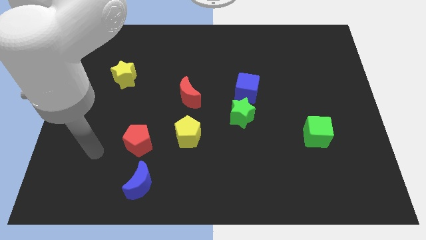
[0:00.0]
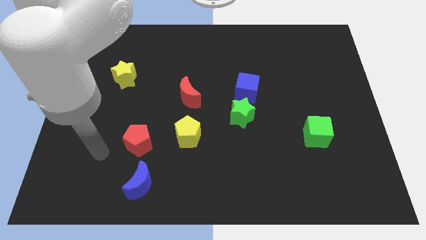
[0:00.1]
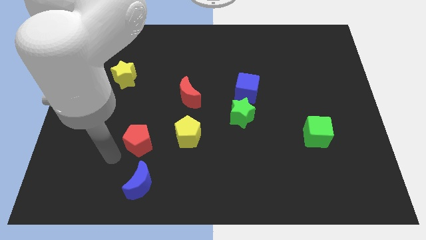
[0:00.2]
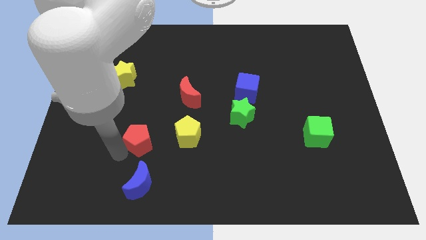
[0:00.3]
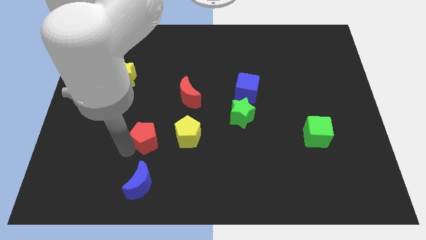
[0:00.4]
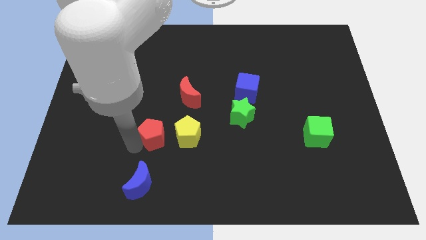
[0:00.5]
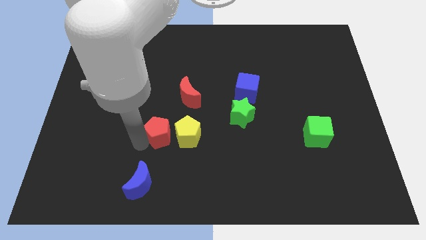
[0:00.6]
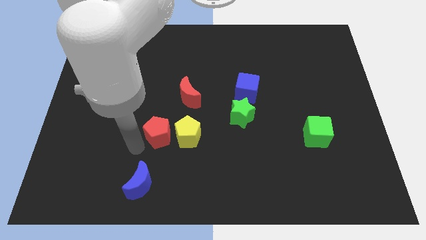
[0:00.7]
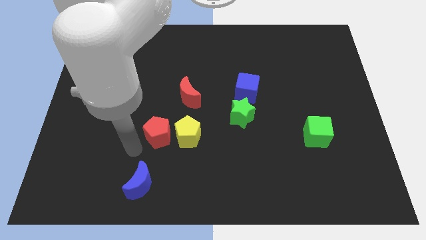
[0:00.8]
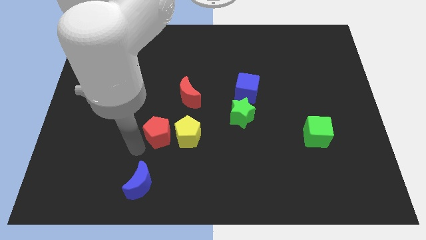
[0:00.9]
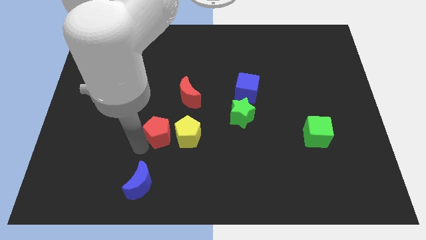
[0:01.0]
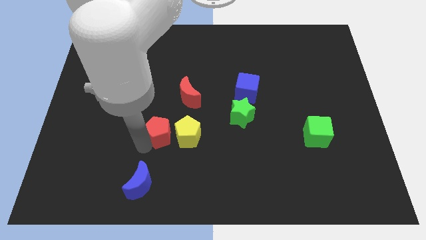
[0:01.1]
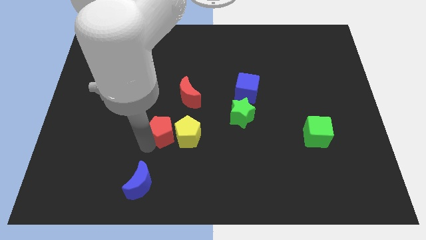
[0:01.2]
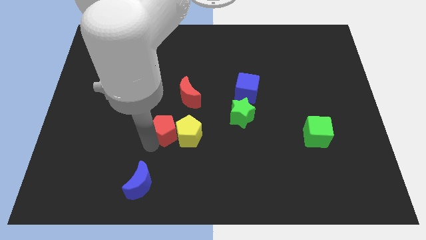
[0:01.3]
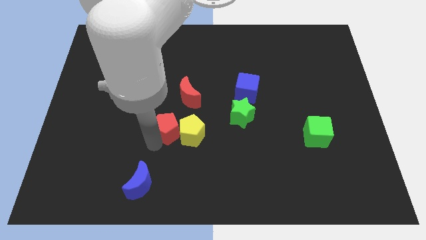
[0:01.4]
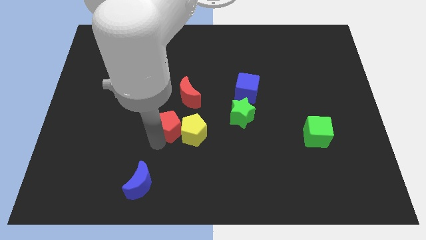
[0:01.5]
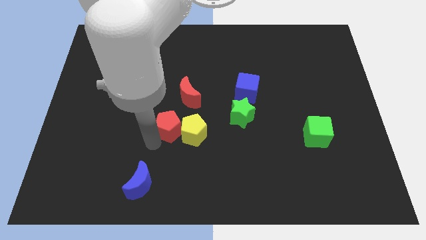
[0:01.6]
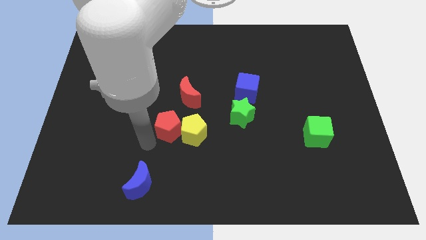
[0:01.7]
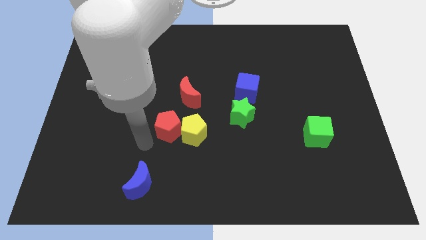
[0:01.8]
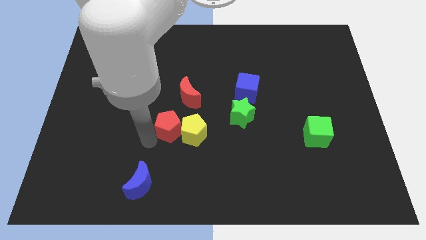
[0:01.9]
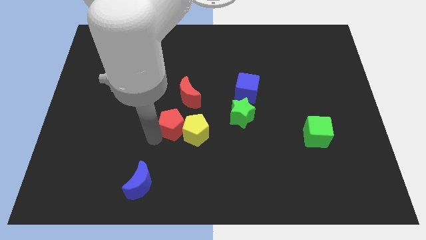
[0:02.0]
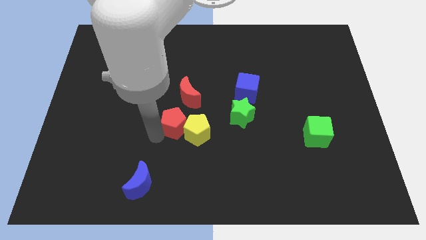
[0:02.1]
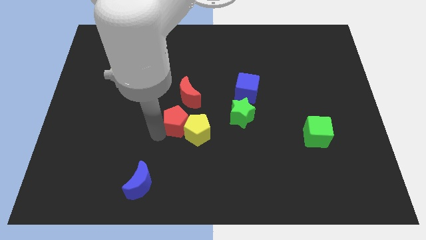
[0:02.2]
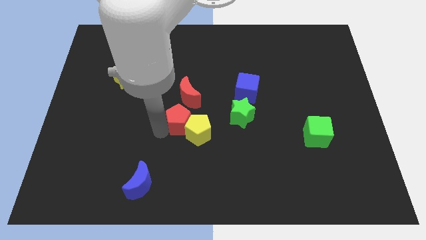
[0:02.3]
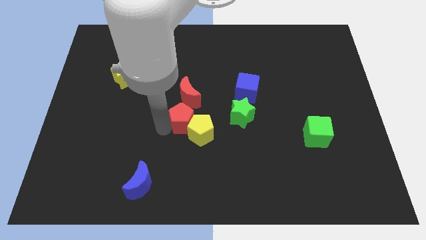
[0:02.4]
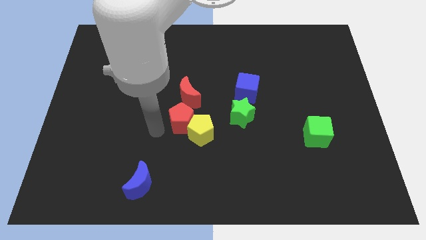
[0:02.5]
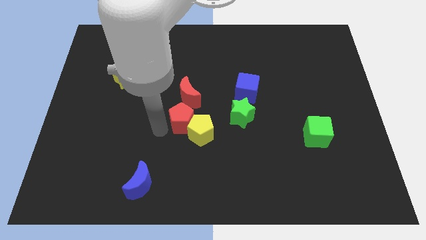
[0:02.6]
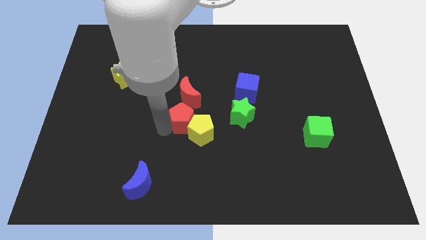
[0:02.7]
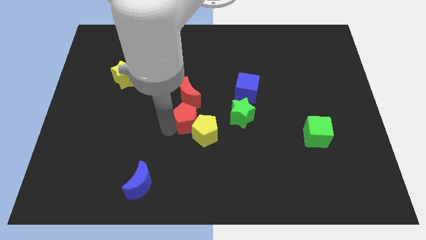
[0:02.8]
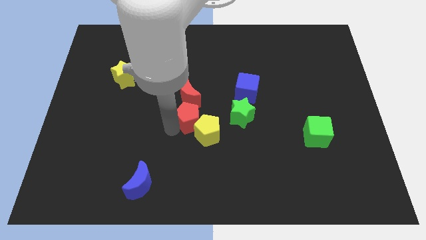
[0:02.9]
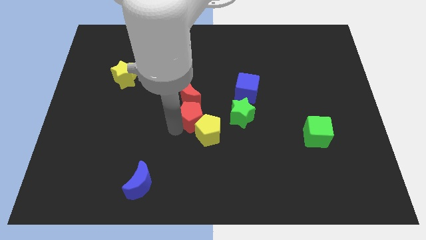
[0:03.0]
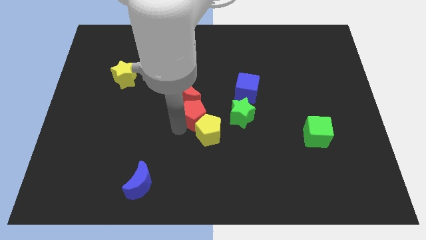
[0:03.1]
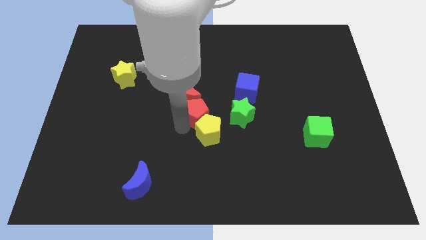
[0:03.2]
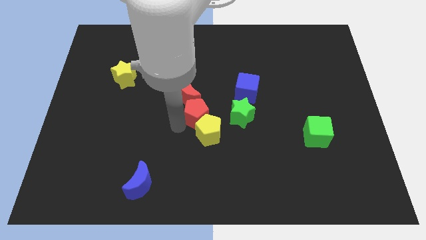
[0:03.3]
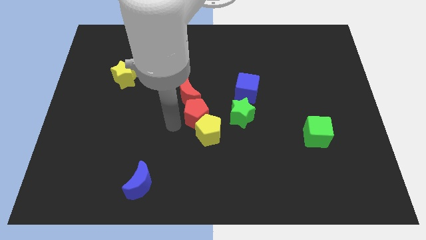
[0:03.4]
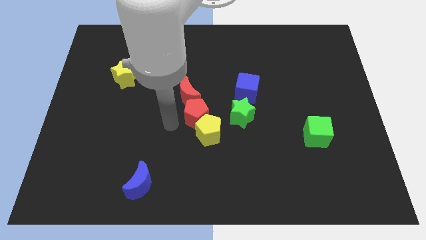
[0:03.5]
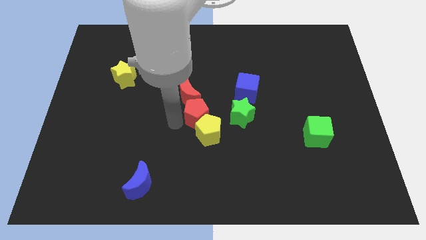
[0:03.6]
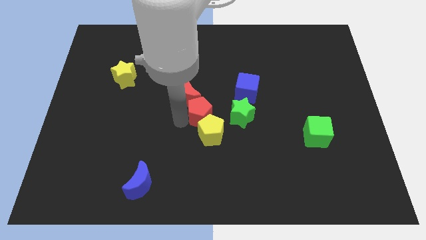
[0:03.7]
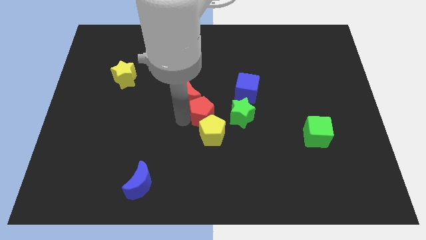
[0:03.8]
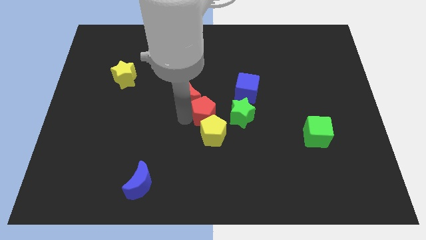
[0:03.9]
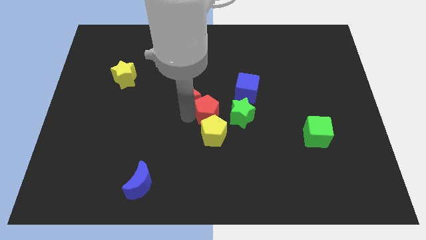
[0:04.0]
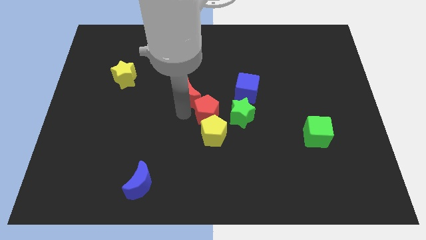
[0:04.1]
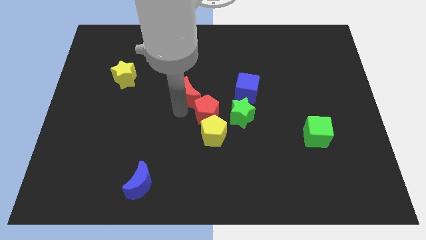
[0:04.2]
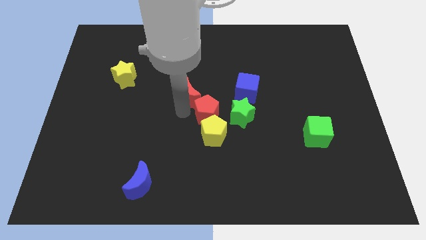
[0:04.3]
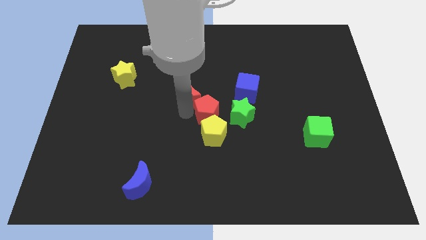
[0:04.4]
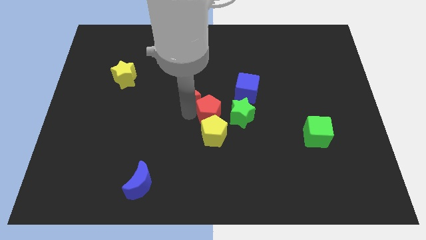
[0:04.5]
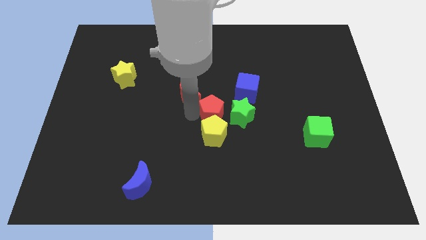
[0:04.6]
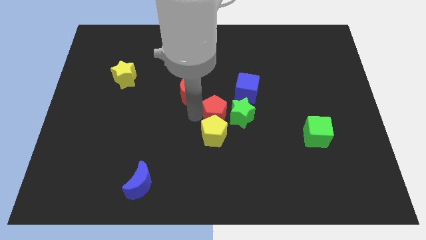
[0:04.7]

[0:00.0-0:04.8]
slide the red pentagon close to the green star

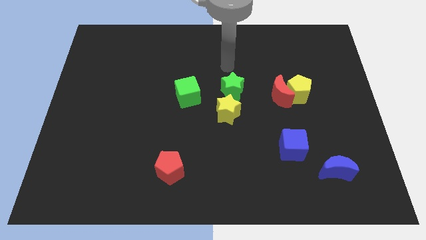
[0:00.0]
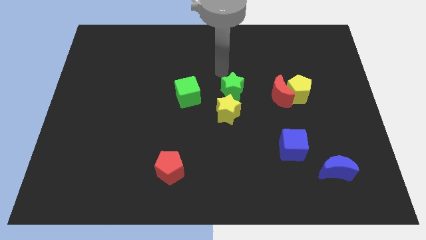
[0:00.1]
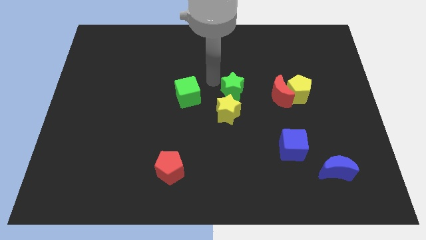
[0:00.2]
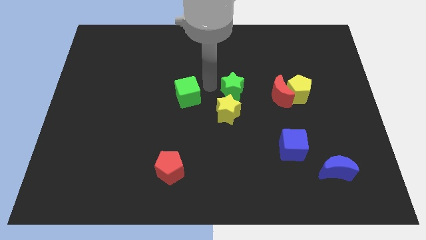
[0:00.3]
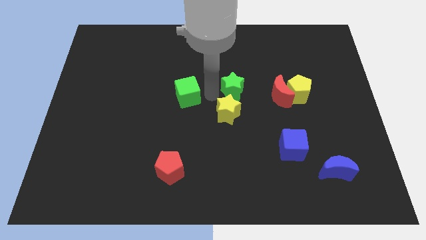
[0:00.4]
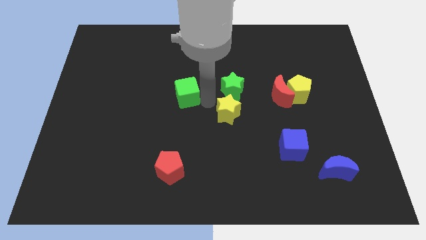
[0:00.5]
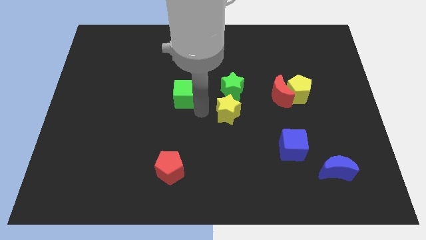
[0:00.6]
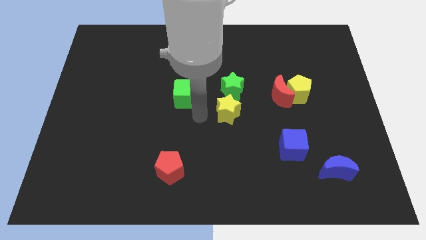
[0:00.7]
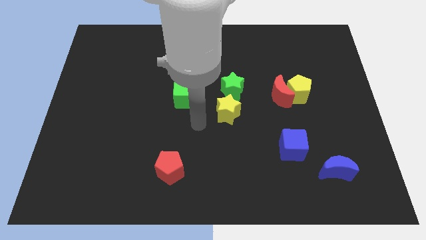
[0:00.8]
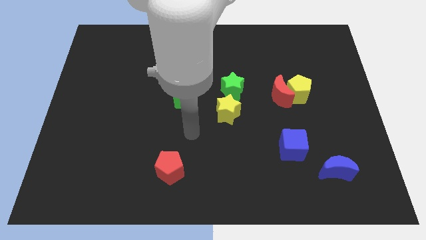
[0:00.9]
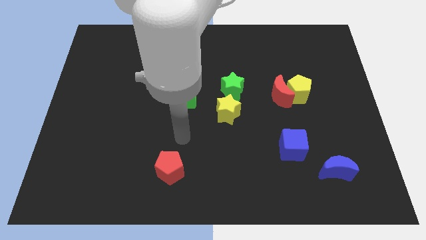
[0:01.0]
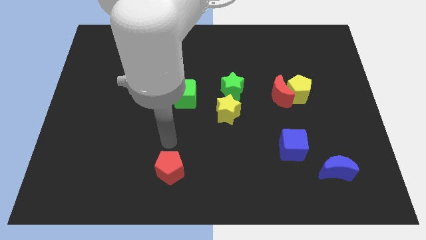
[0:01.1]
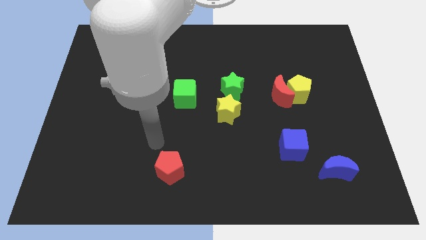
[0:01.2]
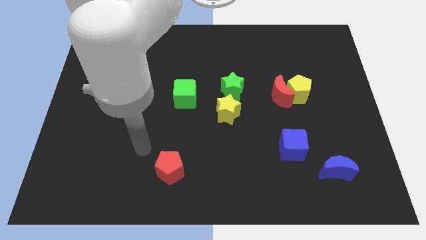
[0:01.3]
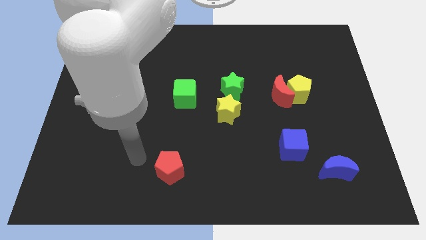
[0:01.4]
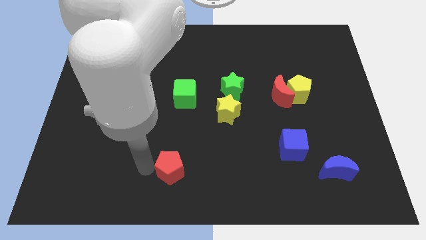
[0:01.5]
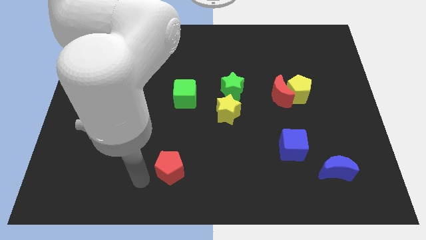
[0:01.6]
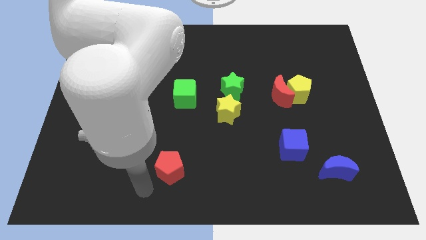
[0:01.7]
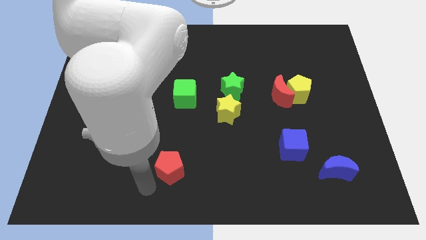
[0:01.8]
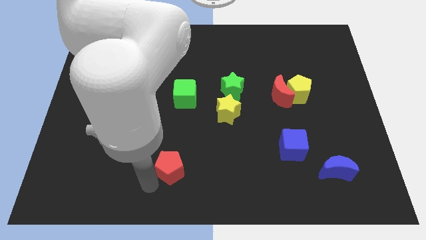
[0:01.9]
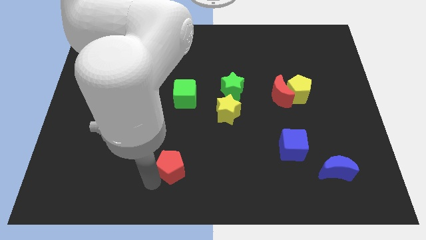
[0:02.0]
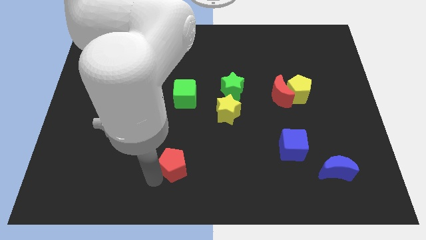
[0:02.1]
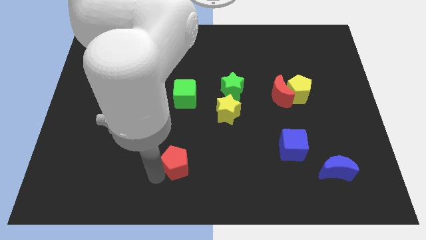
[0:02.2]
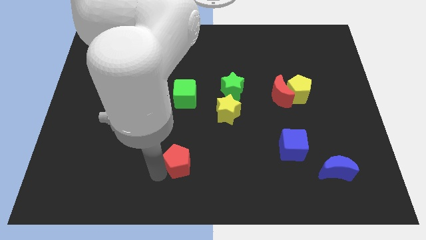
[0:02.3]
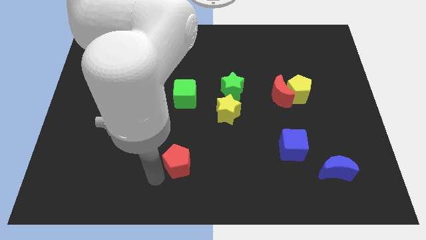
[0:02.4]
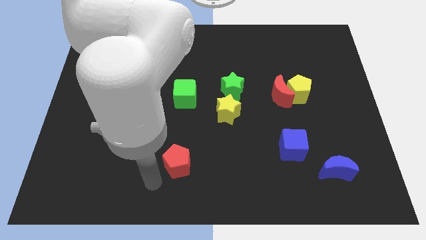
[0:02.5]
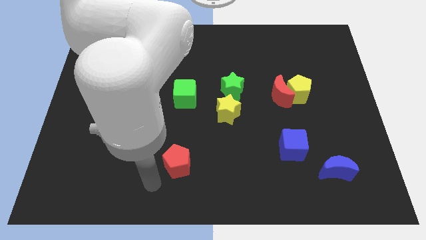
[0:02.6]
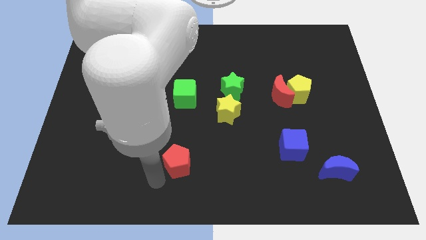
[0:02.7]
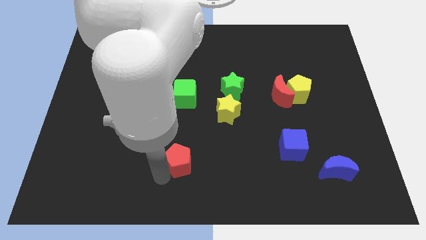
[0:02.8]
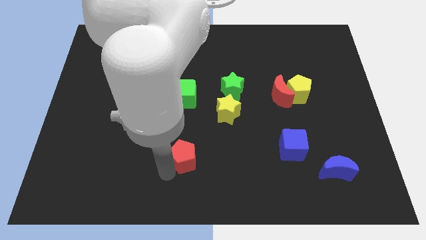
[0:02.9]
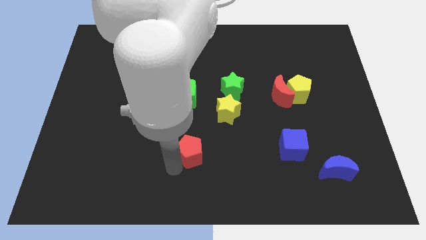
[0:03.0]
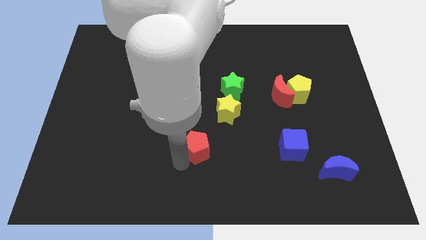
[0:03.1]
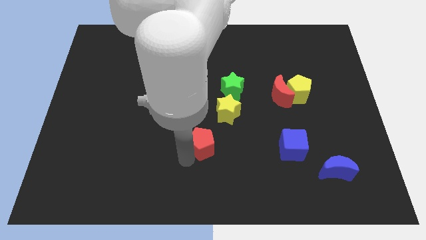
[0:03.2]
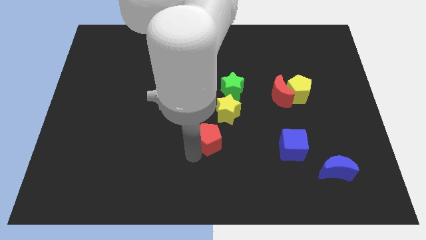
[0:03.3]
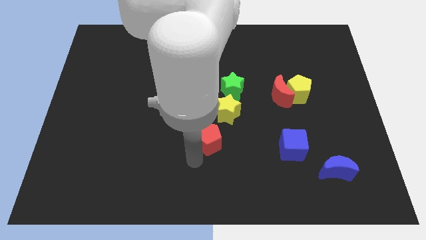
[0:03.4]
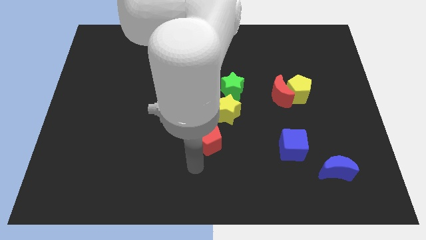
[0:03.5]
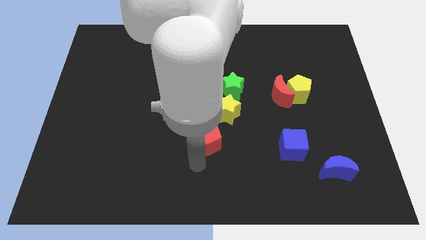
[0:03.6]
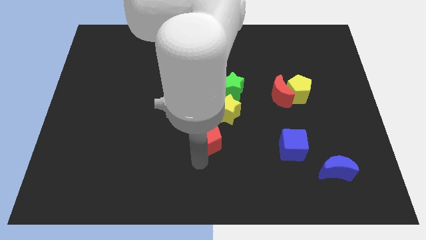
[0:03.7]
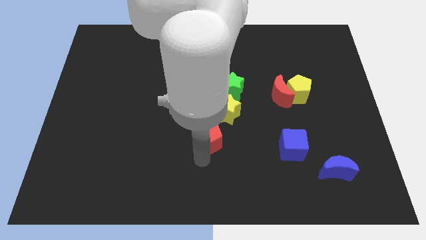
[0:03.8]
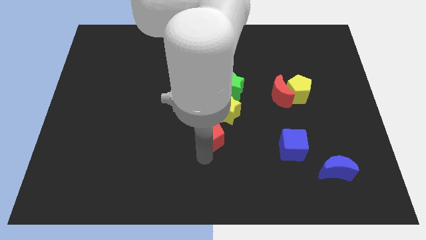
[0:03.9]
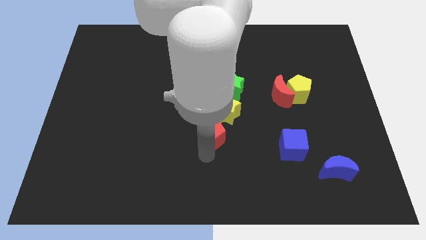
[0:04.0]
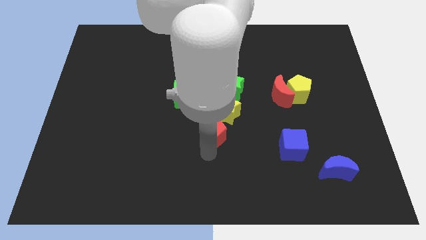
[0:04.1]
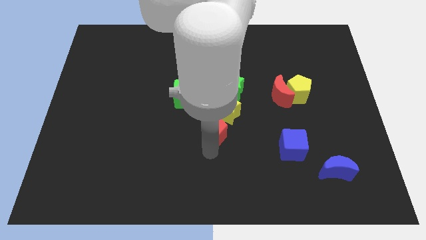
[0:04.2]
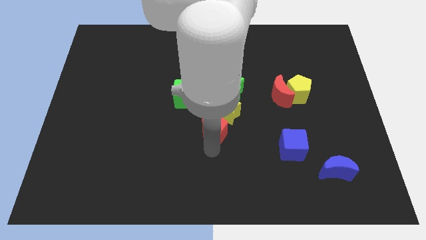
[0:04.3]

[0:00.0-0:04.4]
put the red pentagon towards the yellow star
